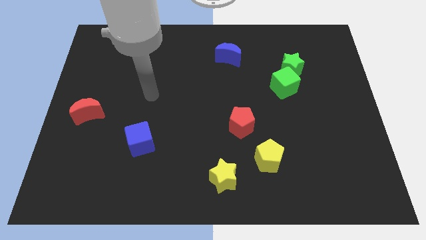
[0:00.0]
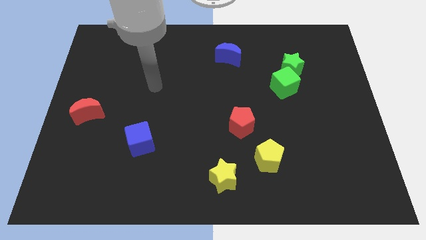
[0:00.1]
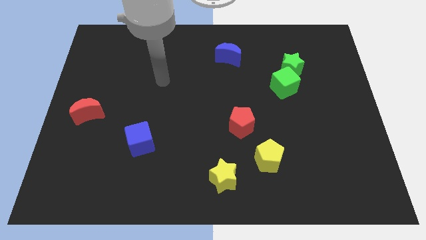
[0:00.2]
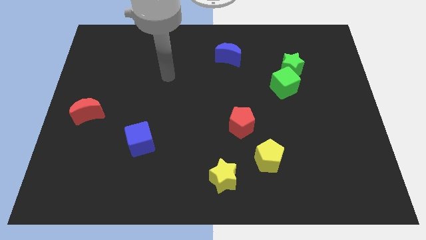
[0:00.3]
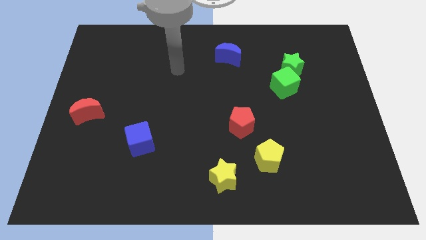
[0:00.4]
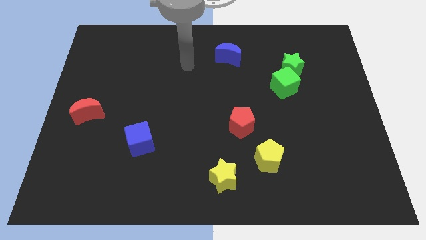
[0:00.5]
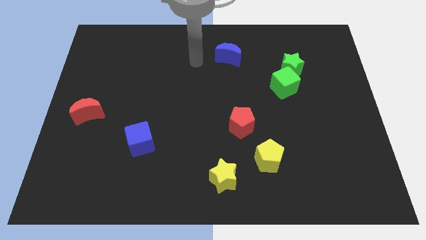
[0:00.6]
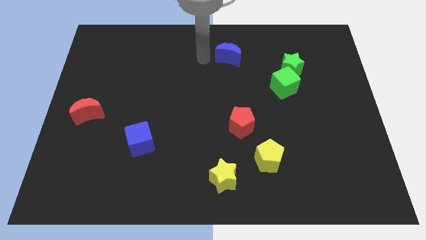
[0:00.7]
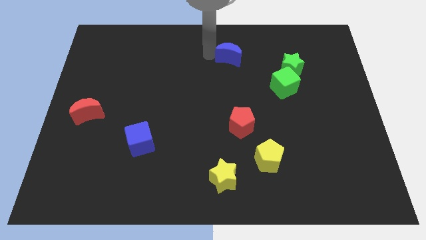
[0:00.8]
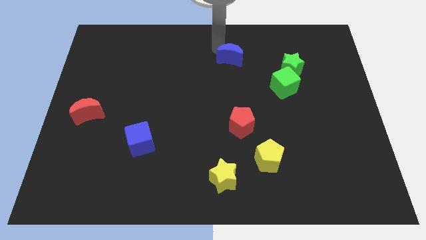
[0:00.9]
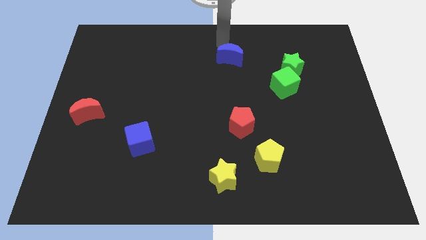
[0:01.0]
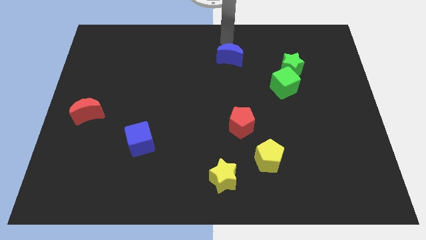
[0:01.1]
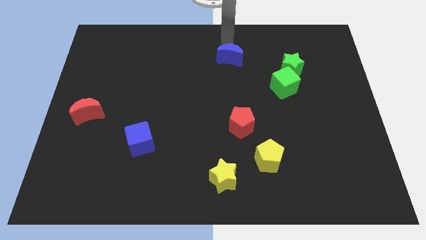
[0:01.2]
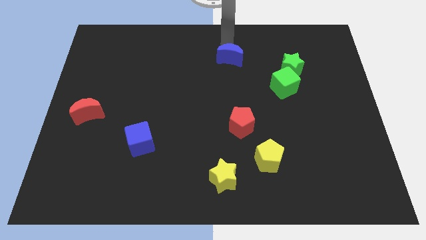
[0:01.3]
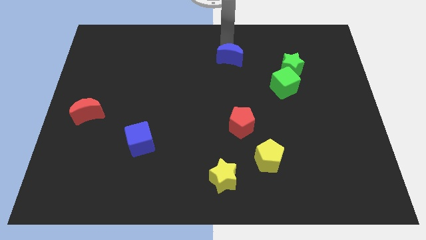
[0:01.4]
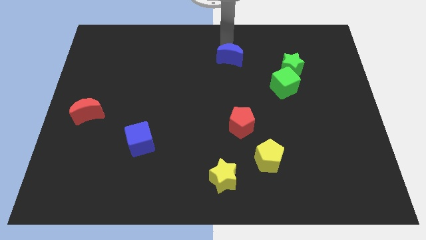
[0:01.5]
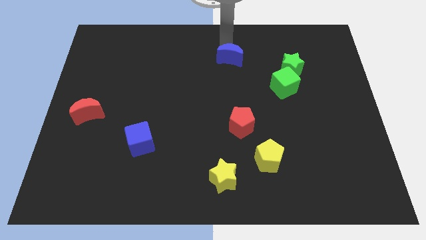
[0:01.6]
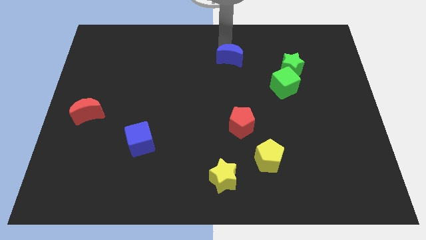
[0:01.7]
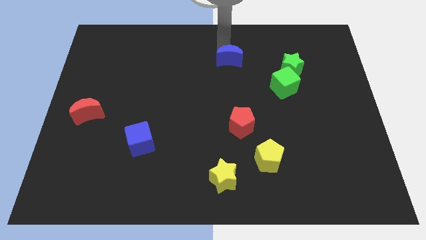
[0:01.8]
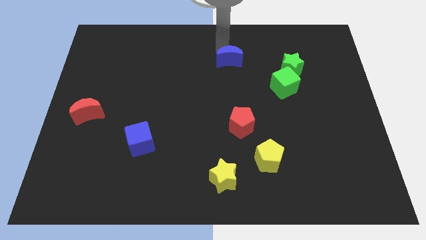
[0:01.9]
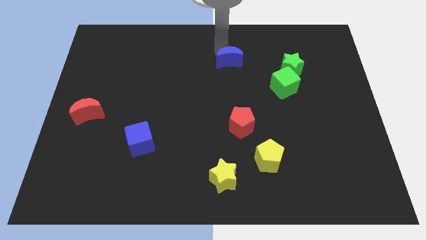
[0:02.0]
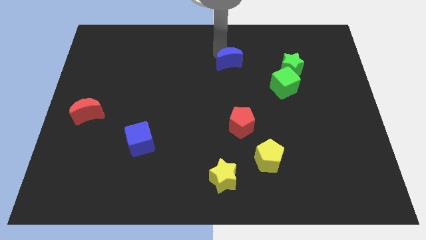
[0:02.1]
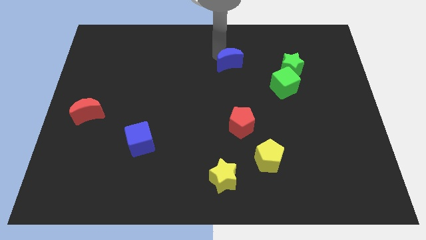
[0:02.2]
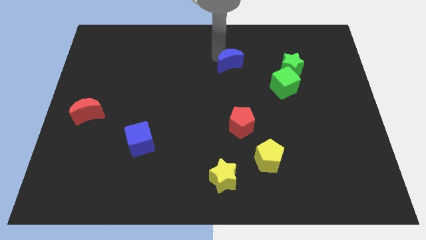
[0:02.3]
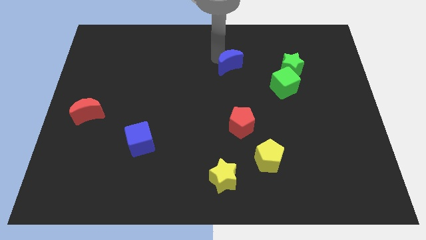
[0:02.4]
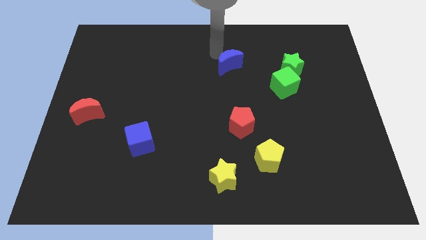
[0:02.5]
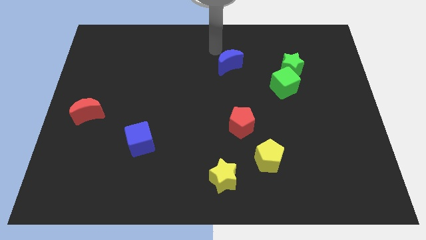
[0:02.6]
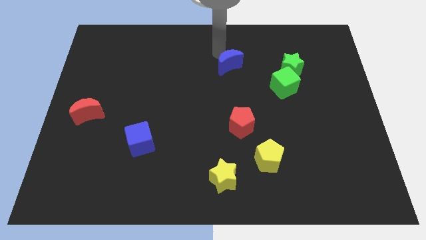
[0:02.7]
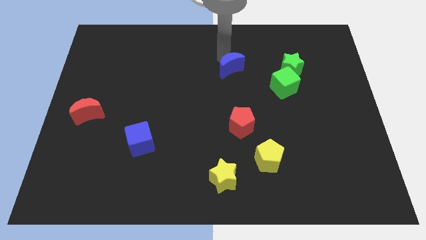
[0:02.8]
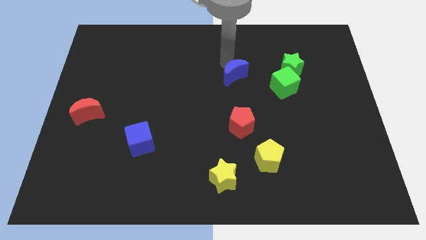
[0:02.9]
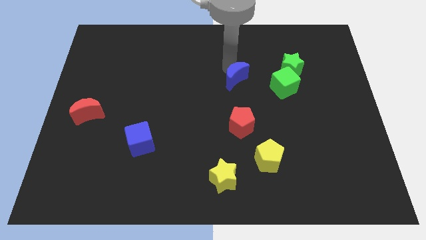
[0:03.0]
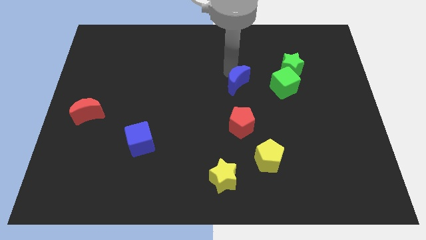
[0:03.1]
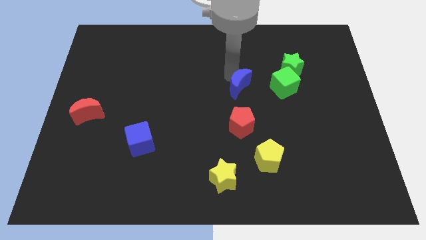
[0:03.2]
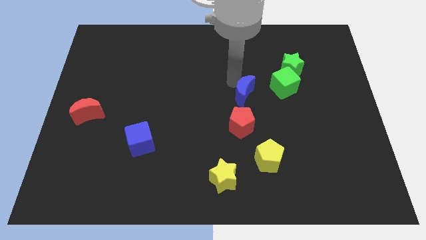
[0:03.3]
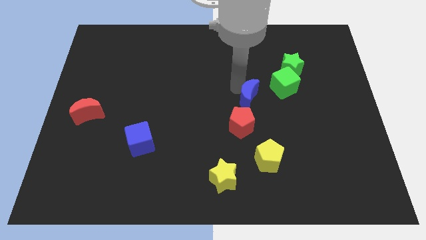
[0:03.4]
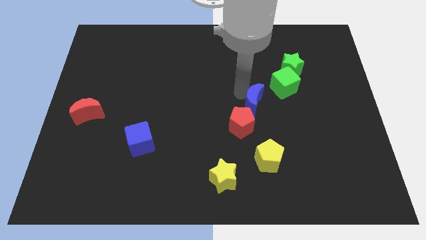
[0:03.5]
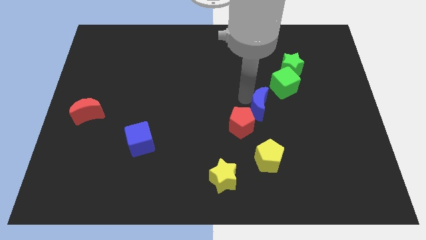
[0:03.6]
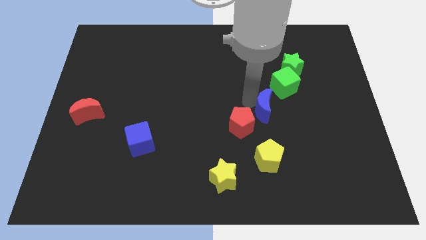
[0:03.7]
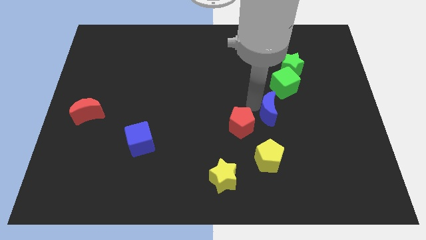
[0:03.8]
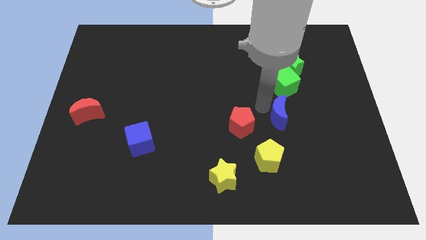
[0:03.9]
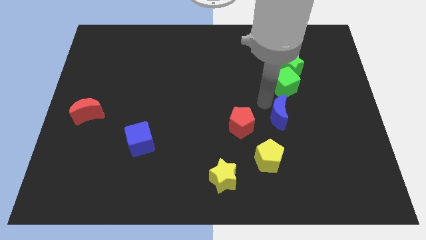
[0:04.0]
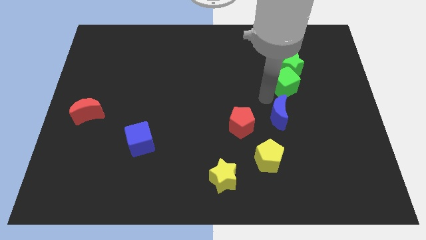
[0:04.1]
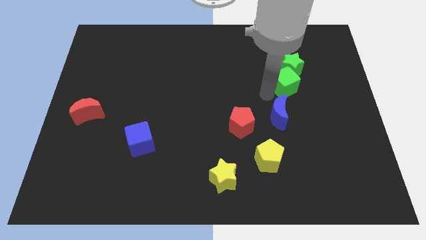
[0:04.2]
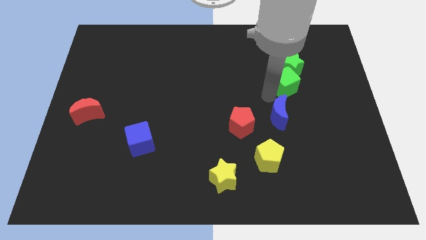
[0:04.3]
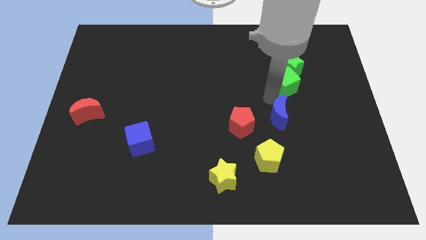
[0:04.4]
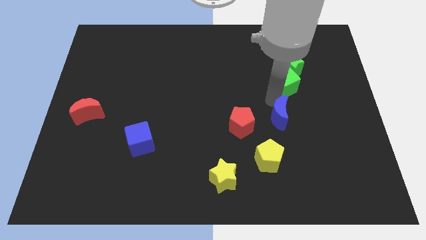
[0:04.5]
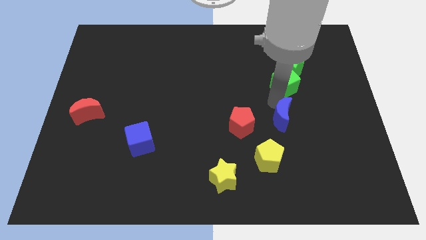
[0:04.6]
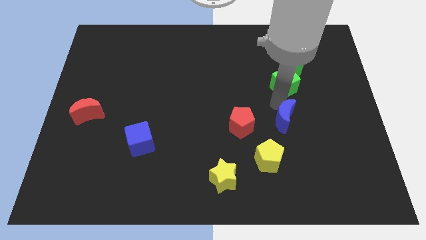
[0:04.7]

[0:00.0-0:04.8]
put the blue moon to the top right side of the yellow pentagon

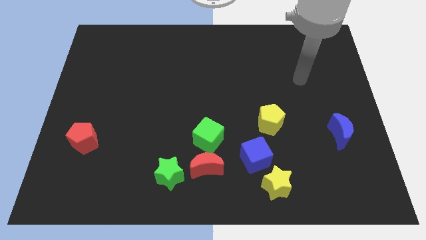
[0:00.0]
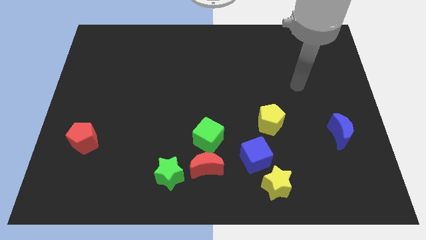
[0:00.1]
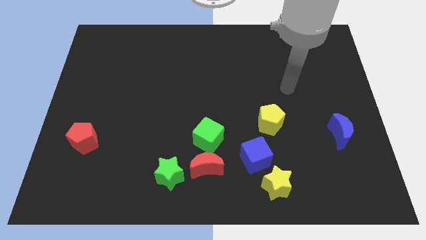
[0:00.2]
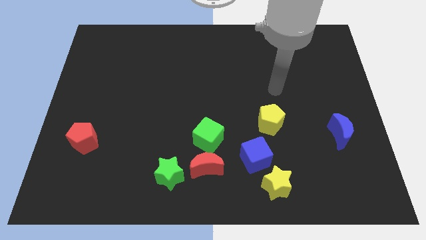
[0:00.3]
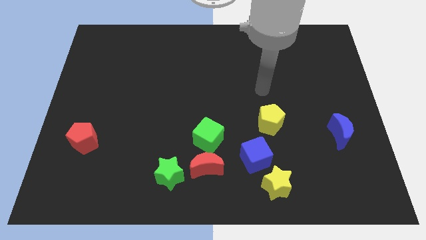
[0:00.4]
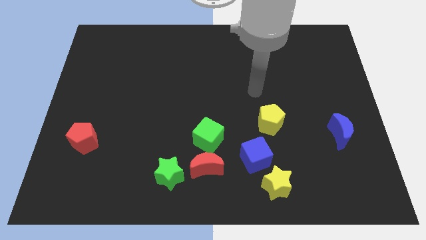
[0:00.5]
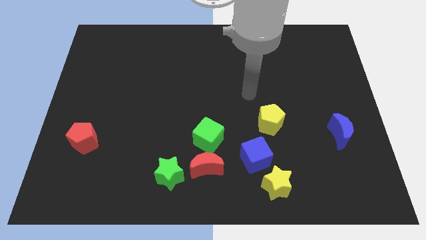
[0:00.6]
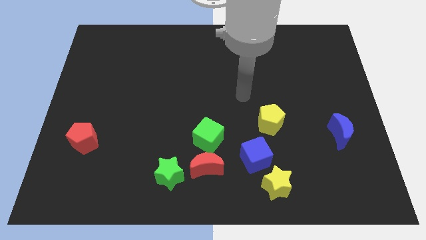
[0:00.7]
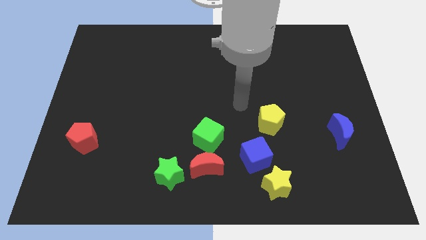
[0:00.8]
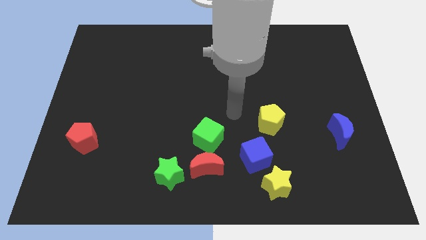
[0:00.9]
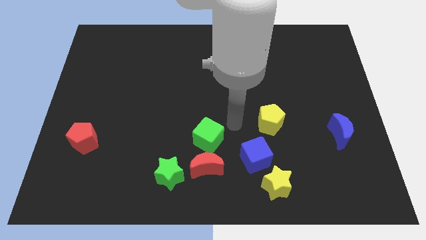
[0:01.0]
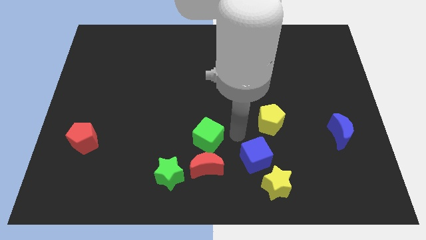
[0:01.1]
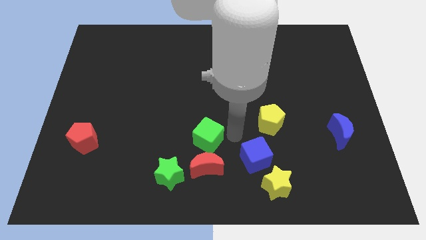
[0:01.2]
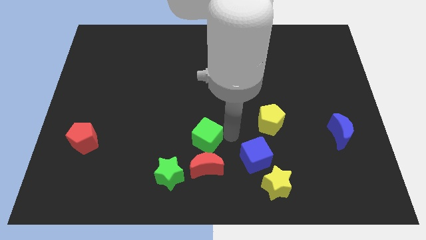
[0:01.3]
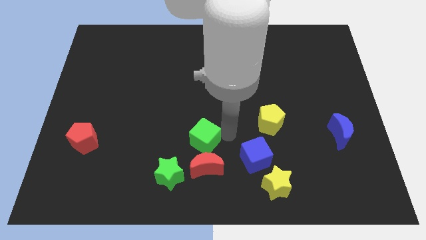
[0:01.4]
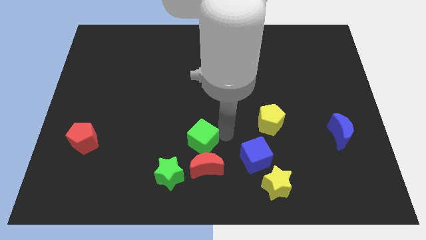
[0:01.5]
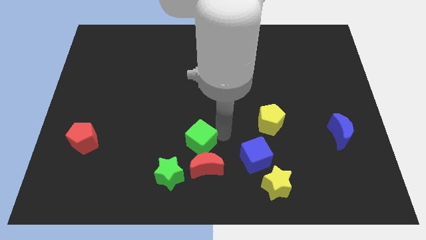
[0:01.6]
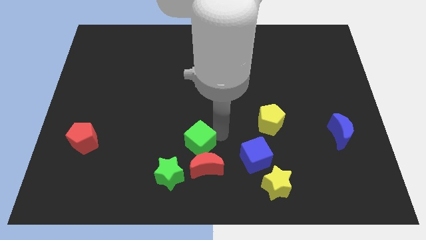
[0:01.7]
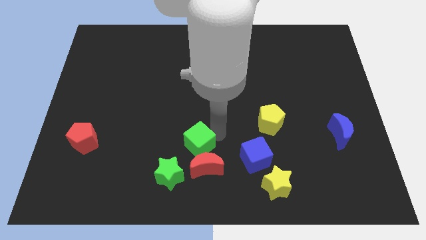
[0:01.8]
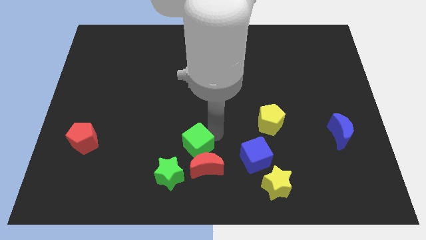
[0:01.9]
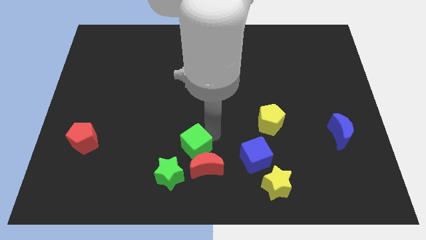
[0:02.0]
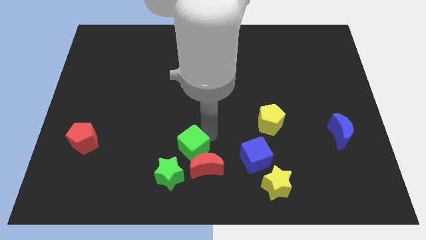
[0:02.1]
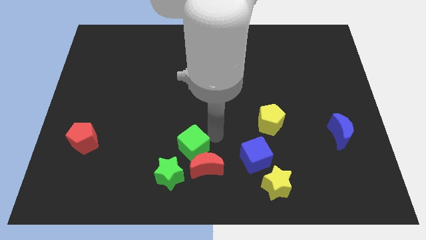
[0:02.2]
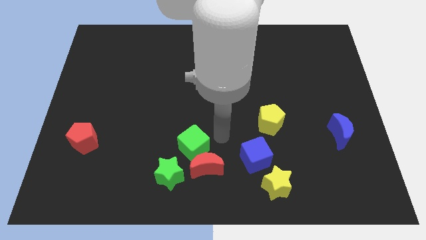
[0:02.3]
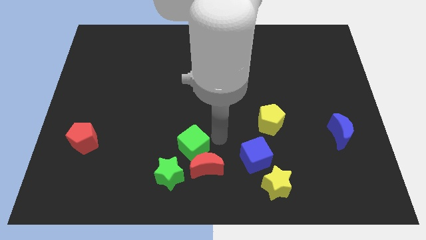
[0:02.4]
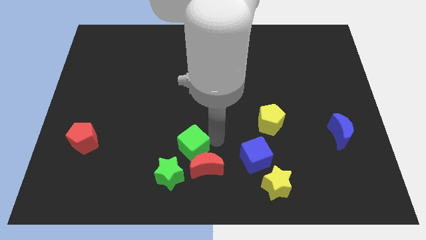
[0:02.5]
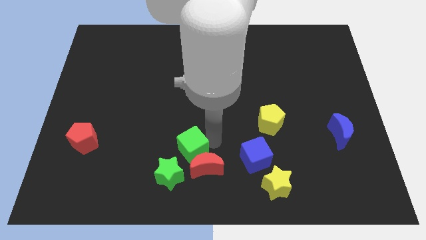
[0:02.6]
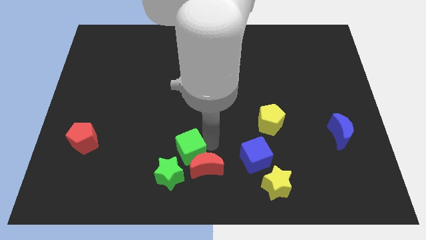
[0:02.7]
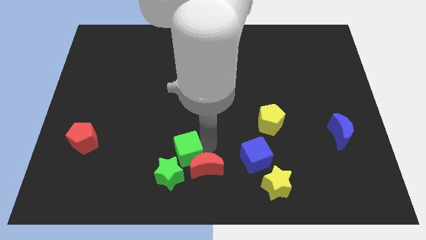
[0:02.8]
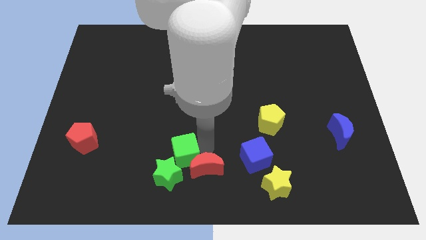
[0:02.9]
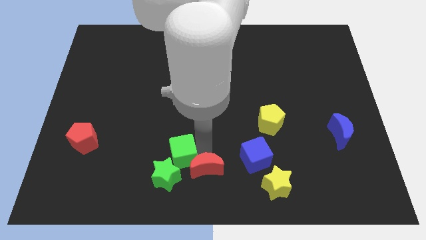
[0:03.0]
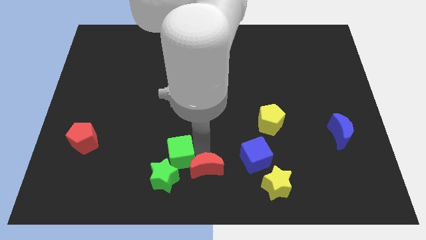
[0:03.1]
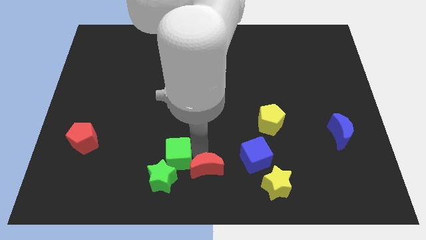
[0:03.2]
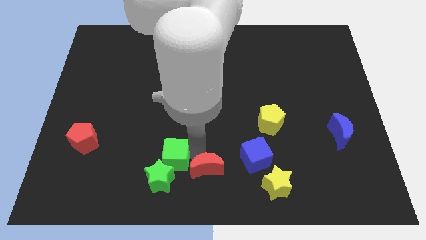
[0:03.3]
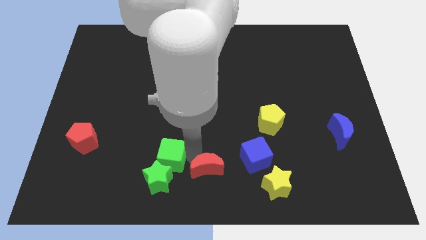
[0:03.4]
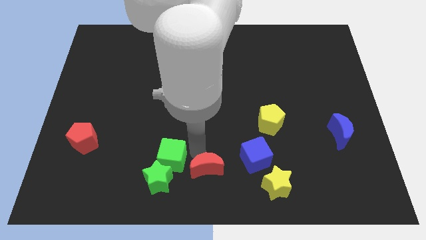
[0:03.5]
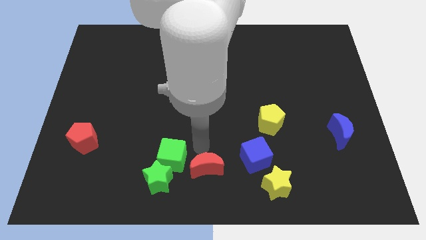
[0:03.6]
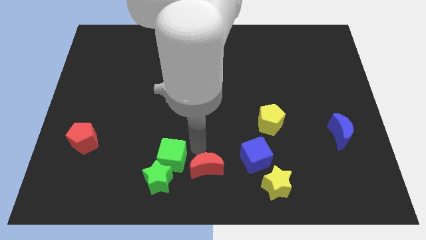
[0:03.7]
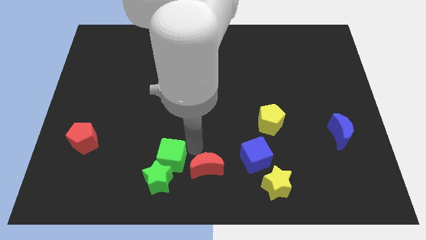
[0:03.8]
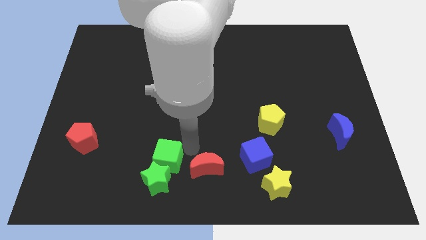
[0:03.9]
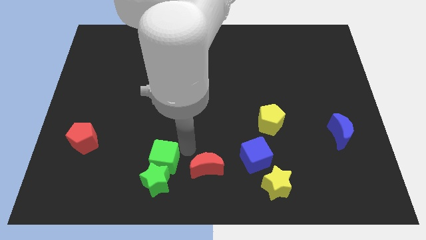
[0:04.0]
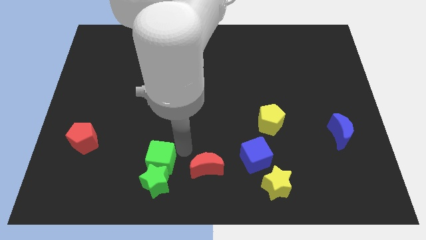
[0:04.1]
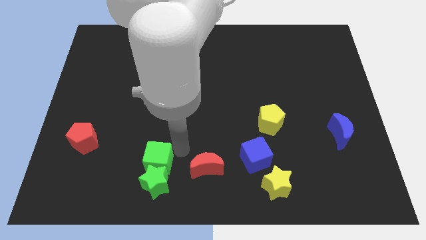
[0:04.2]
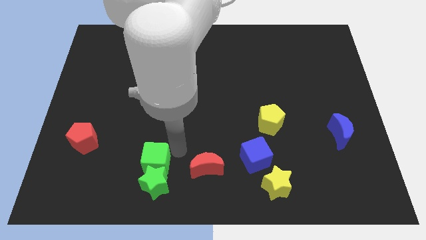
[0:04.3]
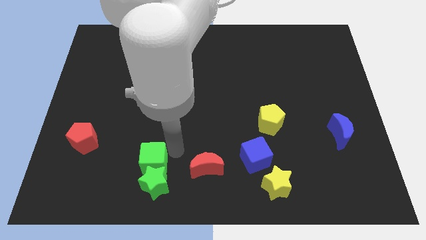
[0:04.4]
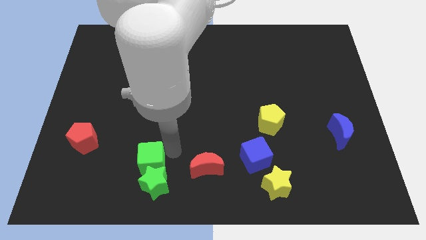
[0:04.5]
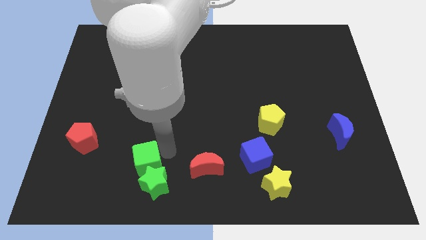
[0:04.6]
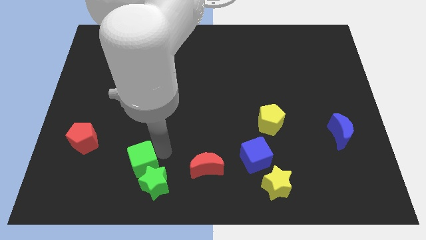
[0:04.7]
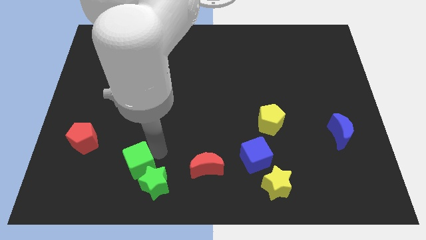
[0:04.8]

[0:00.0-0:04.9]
put the green cube just left of the green star
